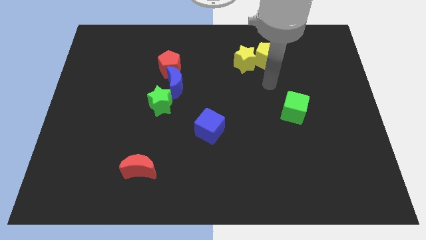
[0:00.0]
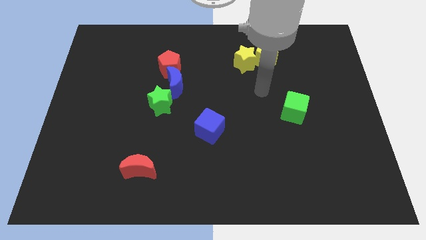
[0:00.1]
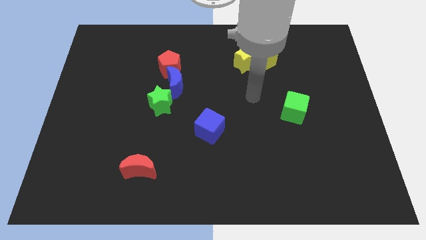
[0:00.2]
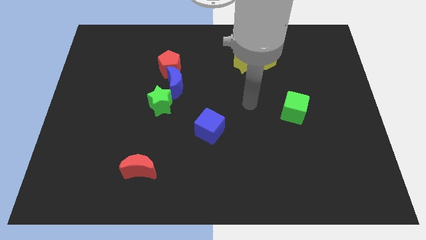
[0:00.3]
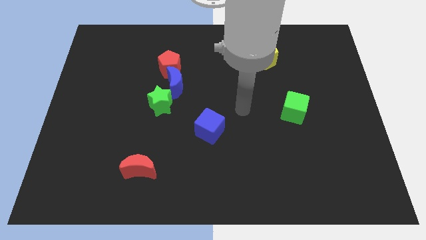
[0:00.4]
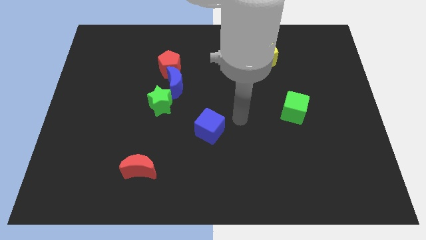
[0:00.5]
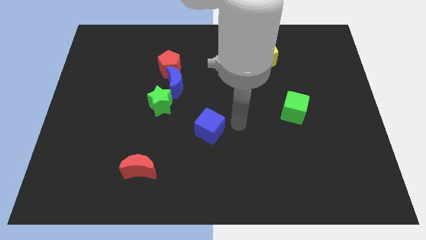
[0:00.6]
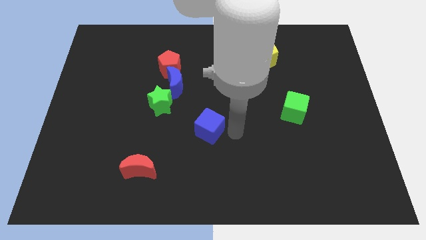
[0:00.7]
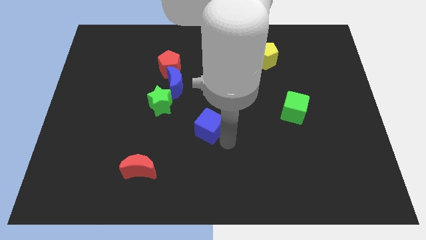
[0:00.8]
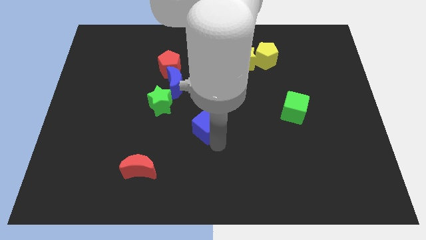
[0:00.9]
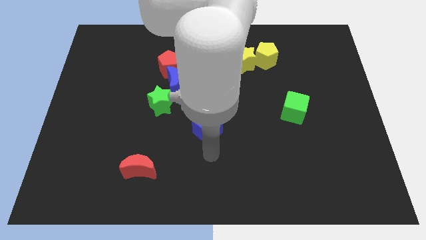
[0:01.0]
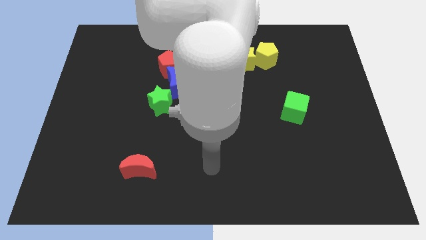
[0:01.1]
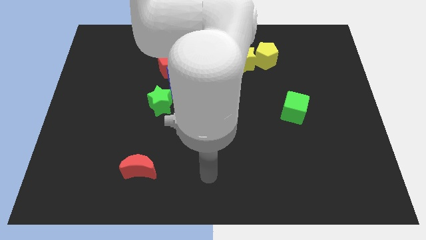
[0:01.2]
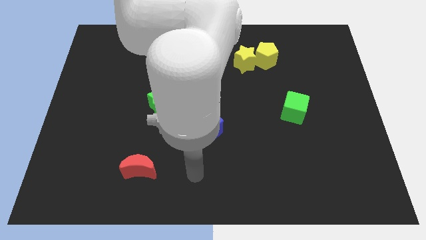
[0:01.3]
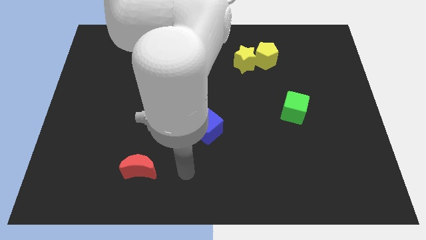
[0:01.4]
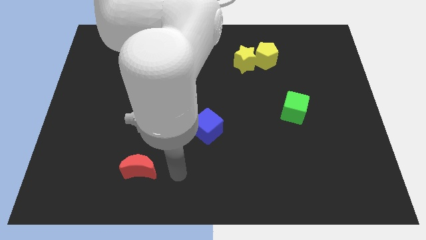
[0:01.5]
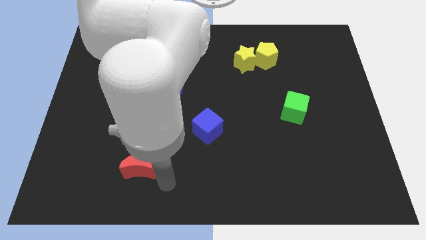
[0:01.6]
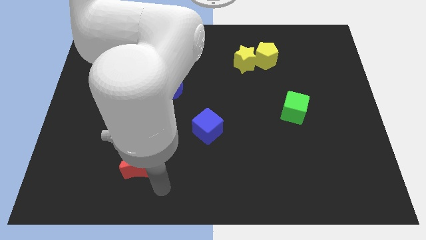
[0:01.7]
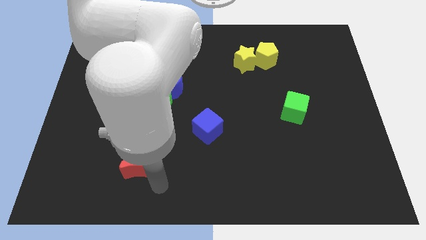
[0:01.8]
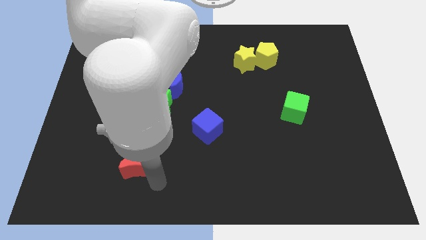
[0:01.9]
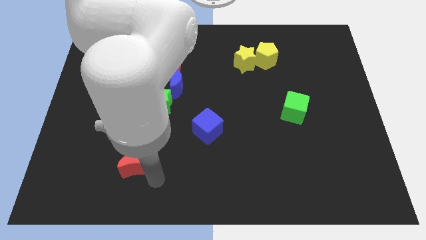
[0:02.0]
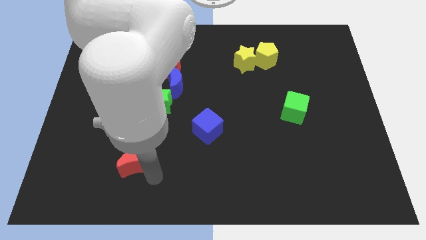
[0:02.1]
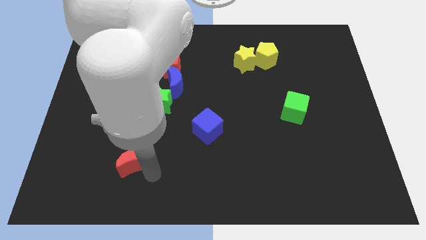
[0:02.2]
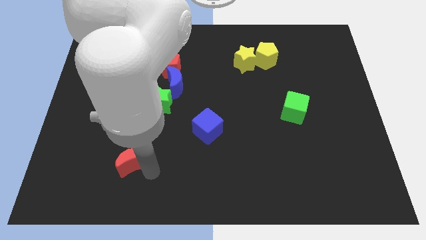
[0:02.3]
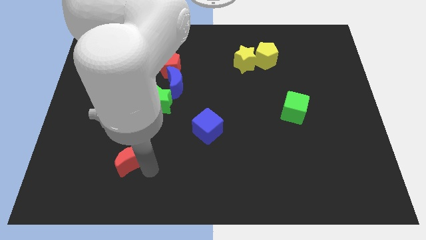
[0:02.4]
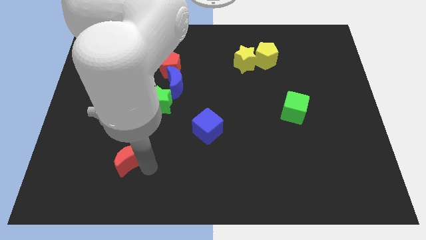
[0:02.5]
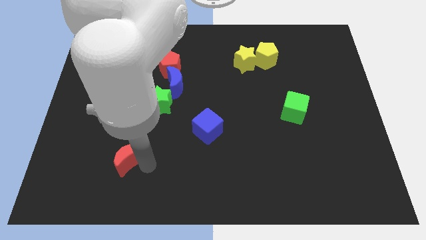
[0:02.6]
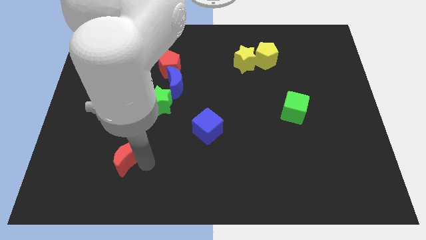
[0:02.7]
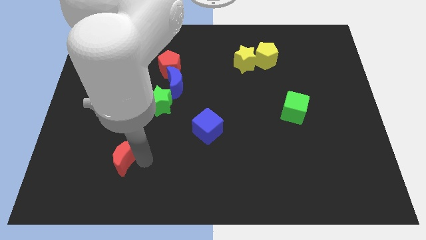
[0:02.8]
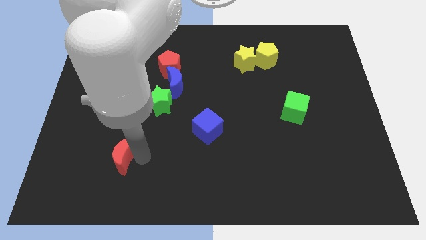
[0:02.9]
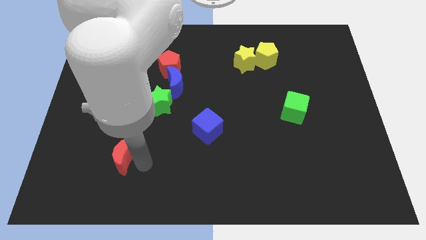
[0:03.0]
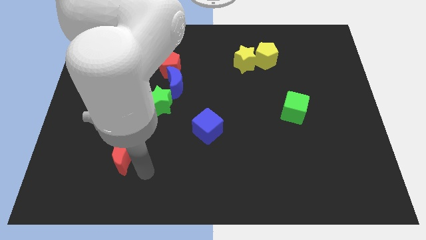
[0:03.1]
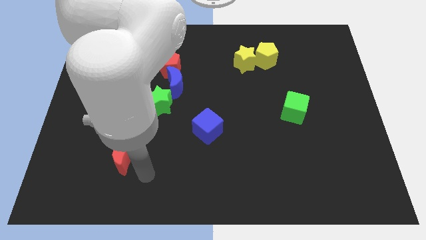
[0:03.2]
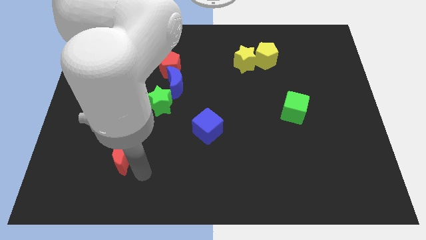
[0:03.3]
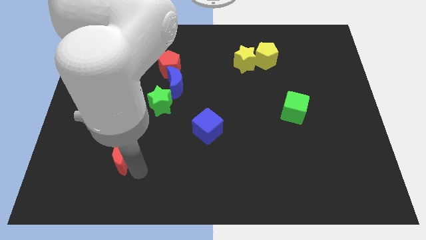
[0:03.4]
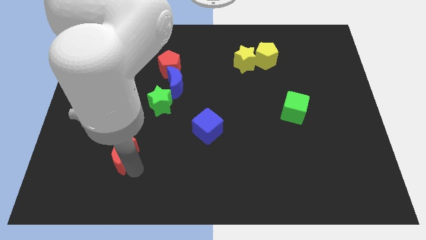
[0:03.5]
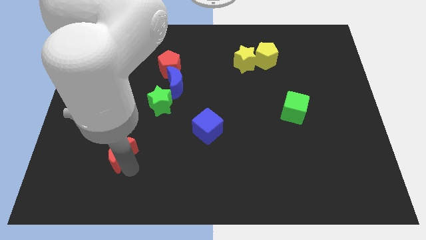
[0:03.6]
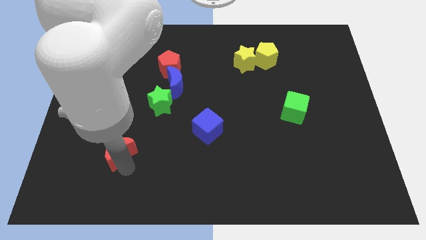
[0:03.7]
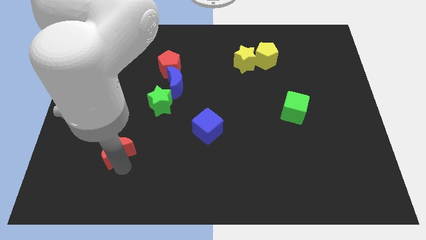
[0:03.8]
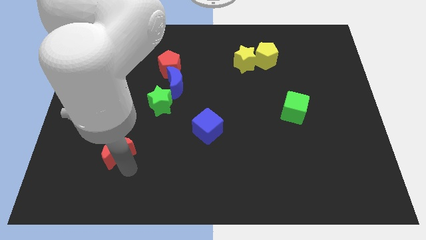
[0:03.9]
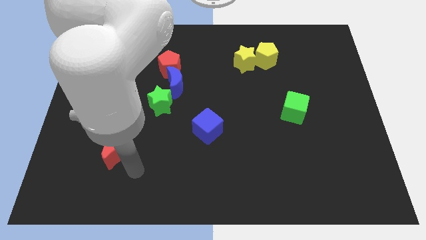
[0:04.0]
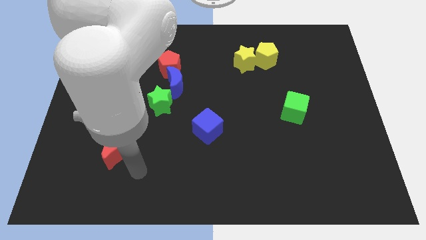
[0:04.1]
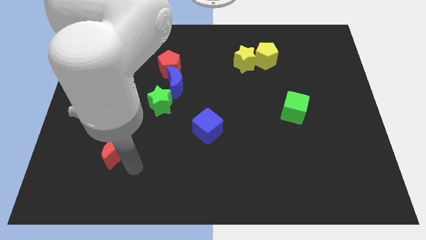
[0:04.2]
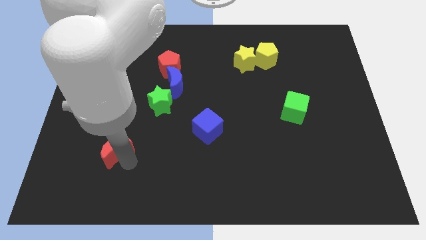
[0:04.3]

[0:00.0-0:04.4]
move the red moon up and then to the left somewhat

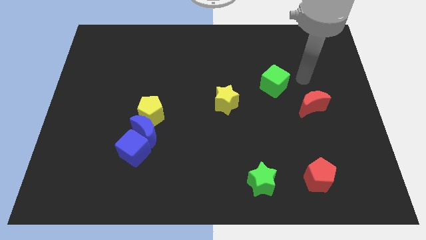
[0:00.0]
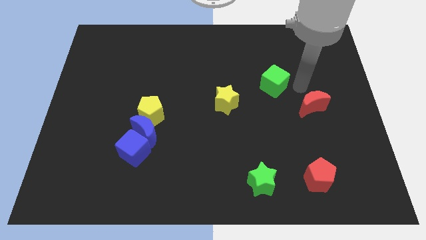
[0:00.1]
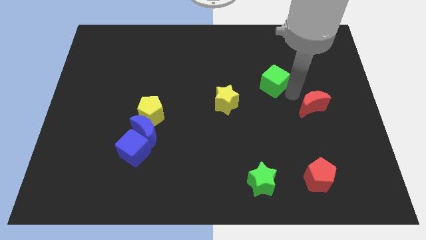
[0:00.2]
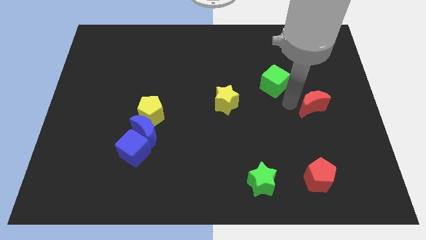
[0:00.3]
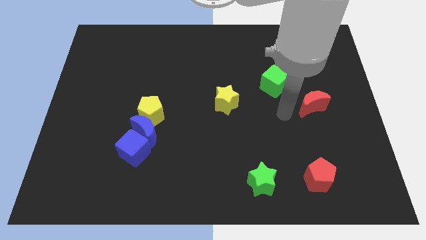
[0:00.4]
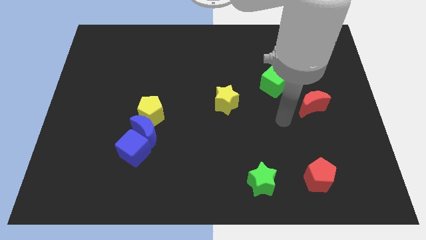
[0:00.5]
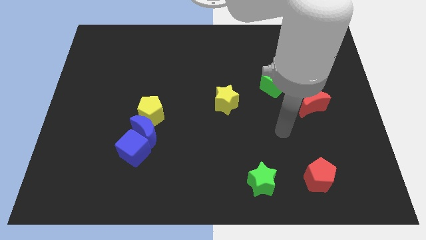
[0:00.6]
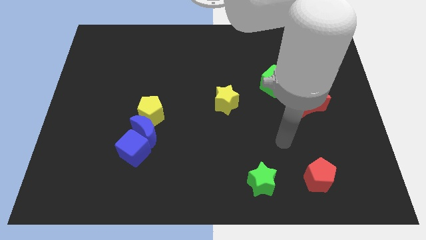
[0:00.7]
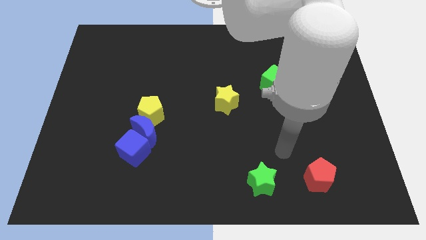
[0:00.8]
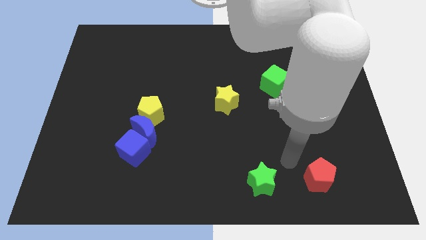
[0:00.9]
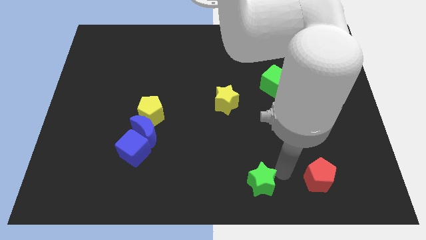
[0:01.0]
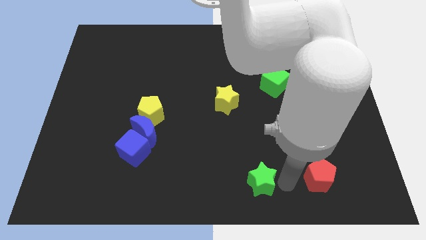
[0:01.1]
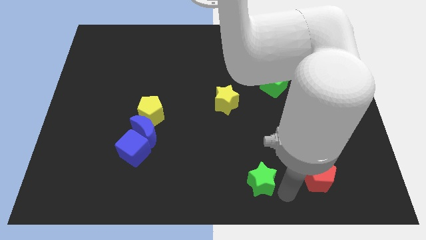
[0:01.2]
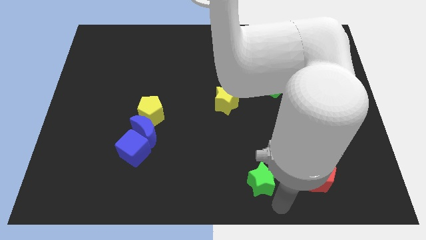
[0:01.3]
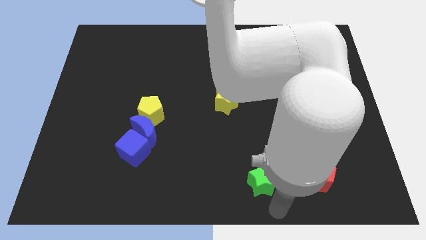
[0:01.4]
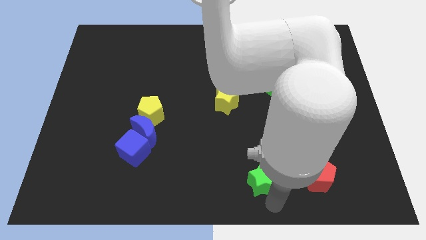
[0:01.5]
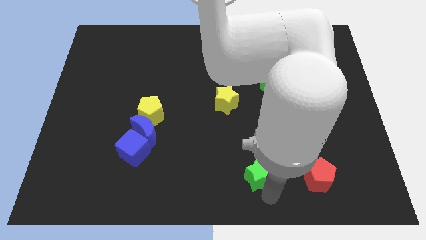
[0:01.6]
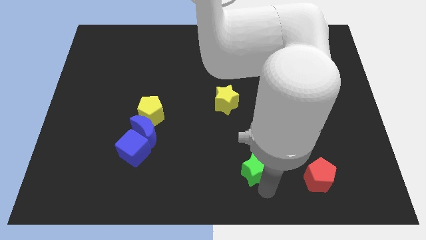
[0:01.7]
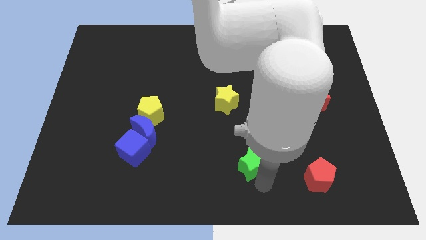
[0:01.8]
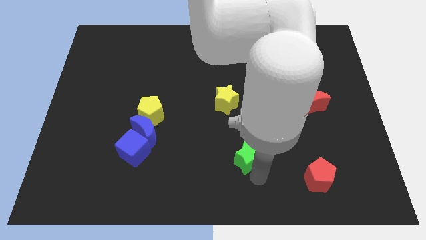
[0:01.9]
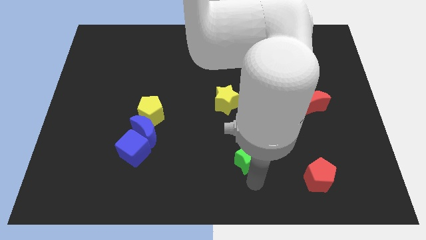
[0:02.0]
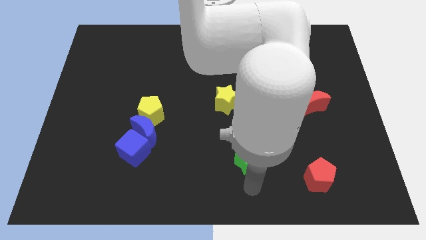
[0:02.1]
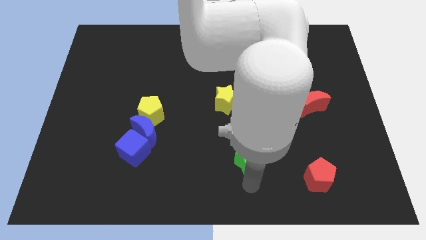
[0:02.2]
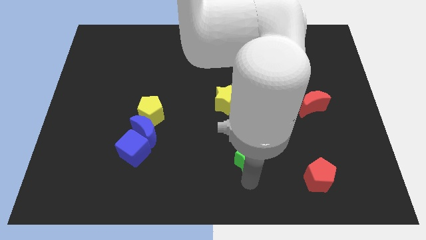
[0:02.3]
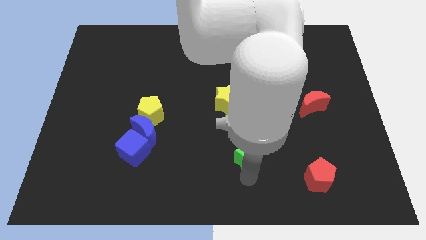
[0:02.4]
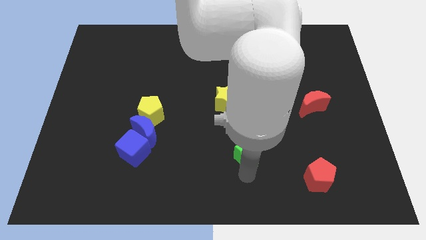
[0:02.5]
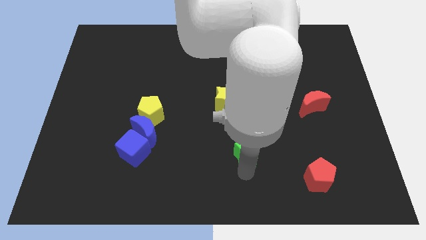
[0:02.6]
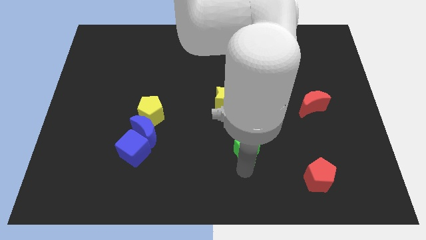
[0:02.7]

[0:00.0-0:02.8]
slide the green star somewhat up

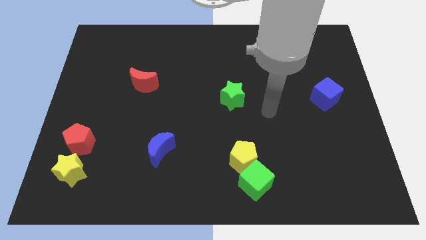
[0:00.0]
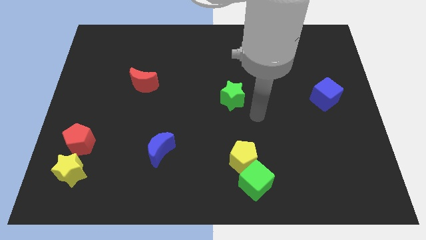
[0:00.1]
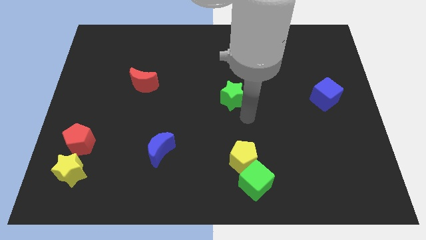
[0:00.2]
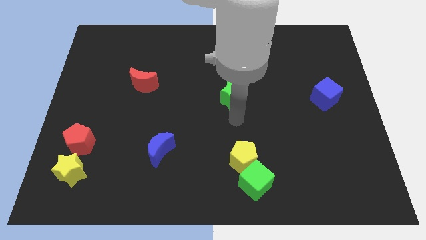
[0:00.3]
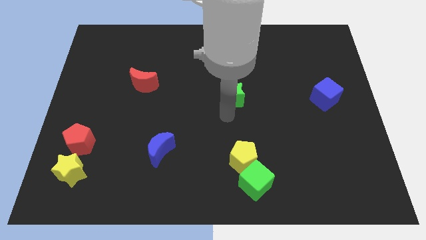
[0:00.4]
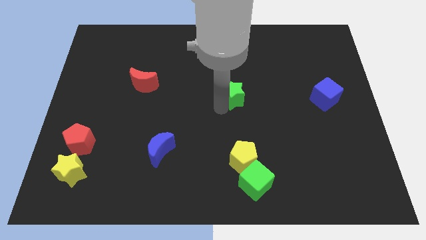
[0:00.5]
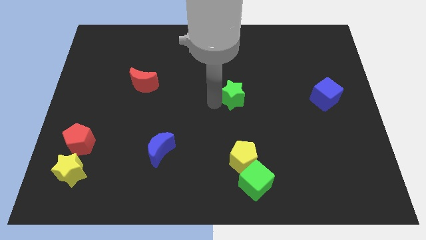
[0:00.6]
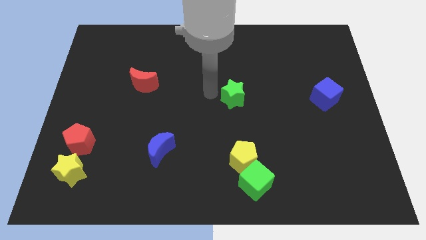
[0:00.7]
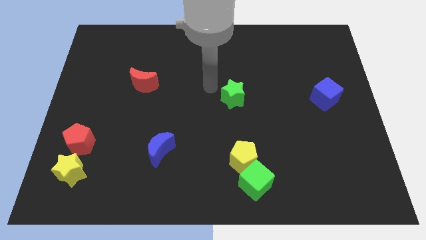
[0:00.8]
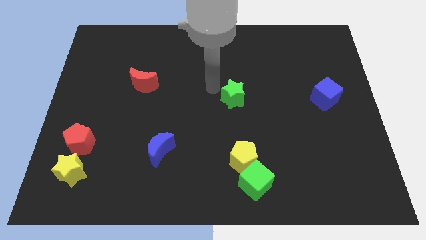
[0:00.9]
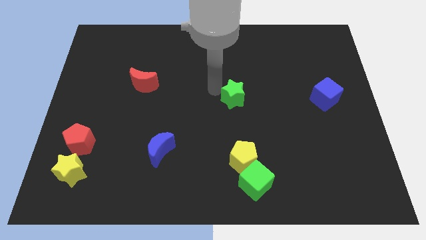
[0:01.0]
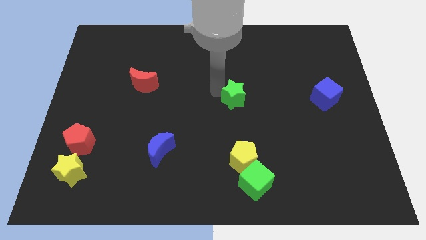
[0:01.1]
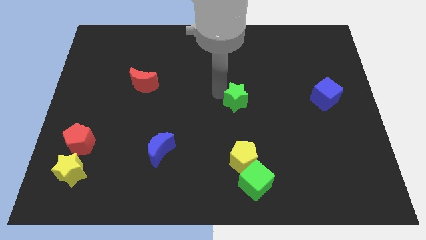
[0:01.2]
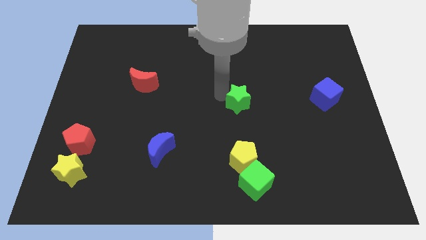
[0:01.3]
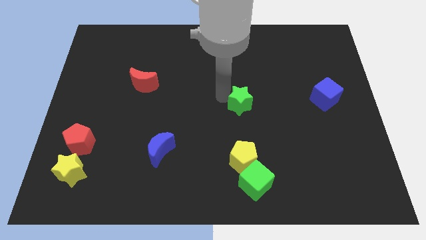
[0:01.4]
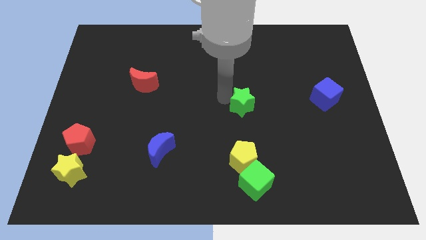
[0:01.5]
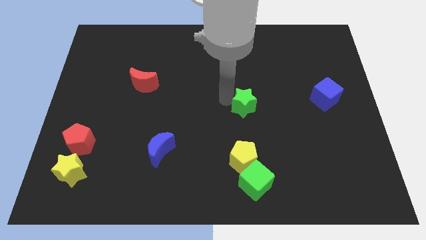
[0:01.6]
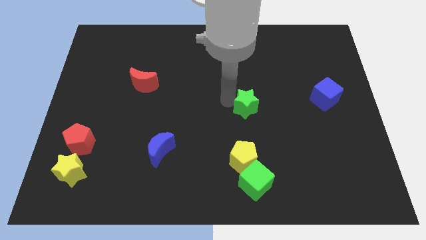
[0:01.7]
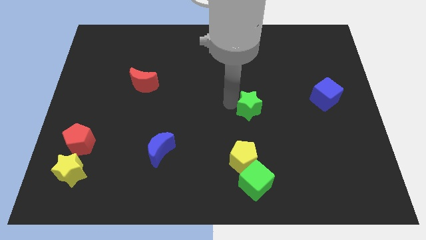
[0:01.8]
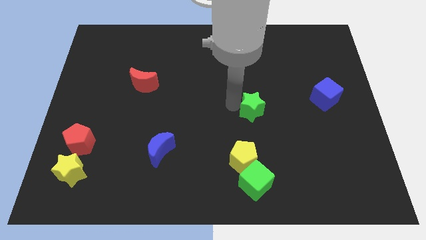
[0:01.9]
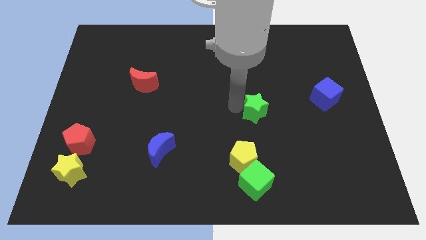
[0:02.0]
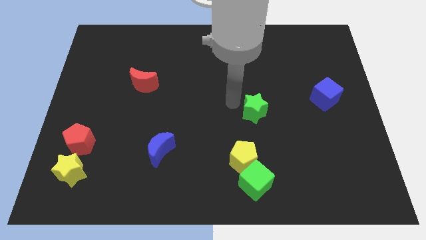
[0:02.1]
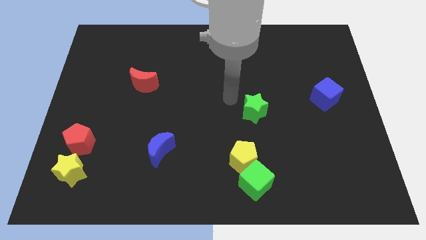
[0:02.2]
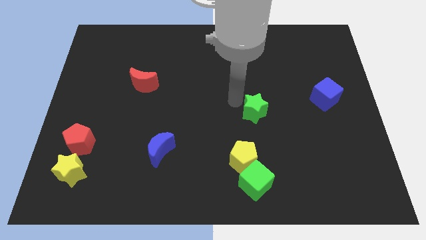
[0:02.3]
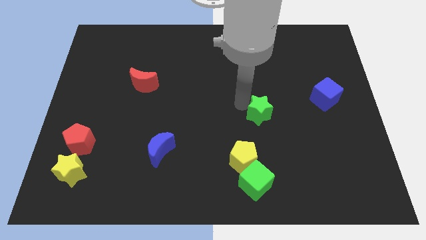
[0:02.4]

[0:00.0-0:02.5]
move the green star somewhat downwards and right
